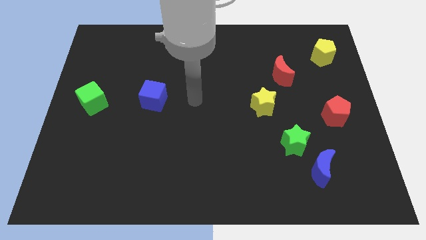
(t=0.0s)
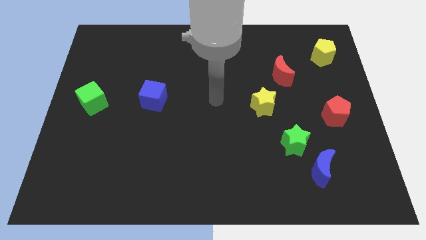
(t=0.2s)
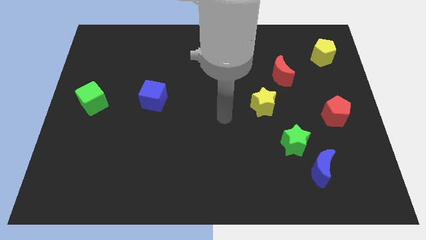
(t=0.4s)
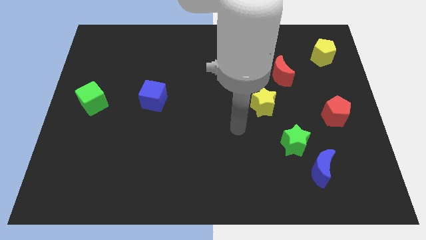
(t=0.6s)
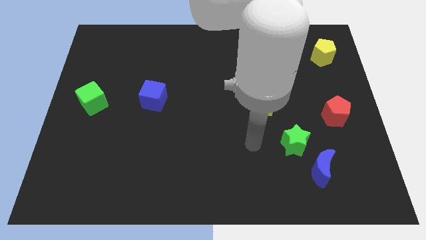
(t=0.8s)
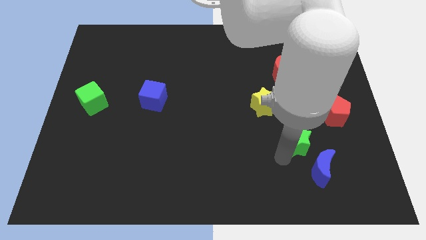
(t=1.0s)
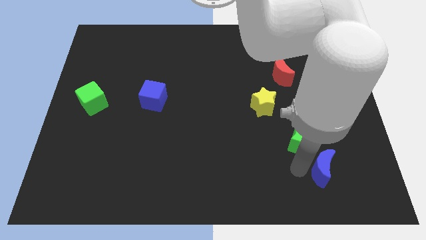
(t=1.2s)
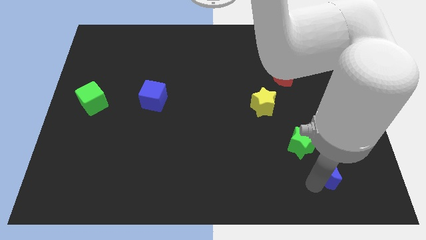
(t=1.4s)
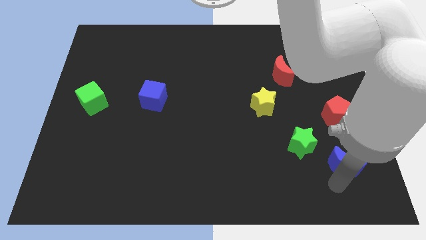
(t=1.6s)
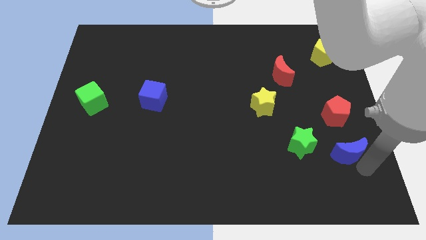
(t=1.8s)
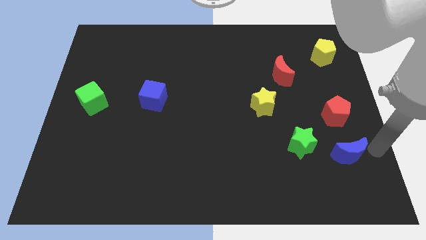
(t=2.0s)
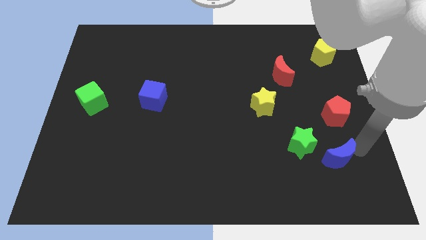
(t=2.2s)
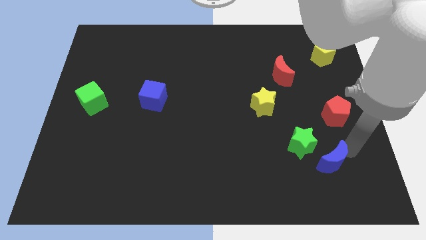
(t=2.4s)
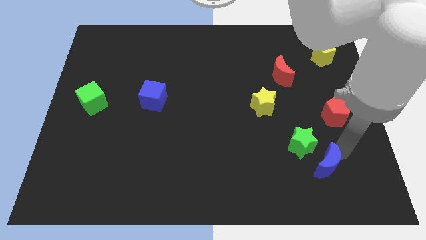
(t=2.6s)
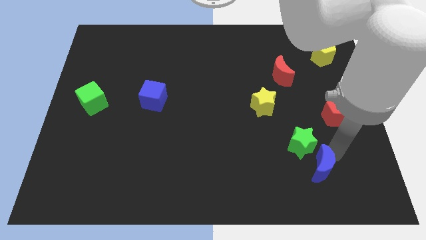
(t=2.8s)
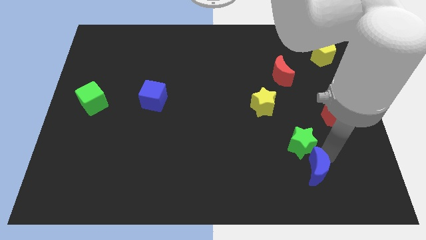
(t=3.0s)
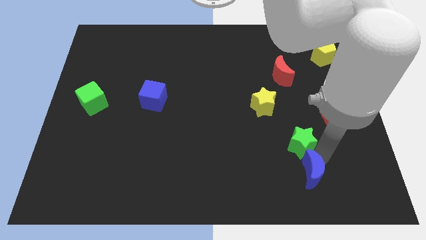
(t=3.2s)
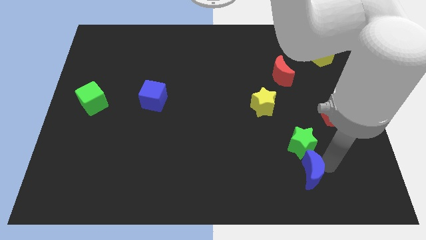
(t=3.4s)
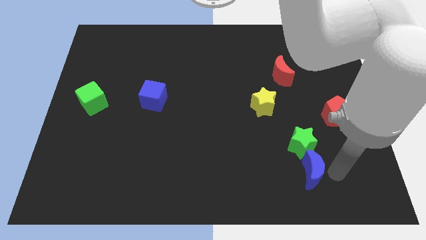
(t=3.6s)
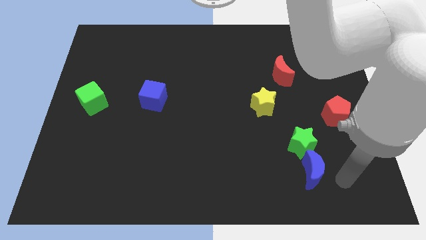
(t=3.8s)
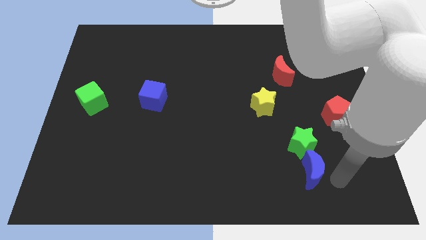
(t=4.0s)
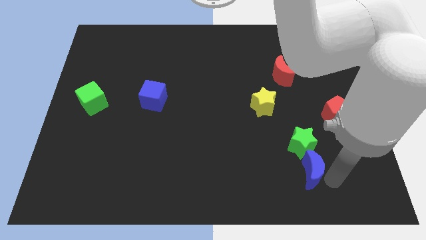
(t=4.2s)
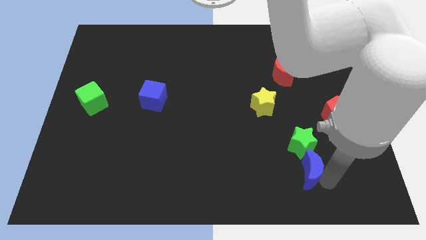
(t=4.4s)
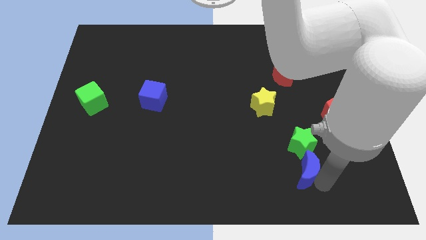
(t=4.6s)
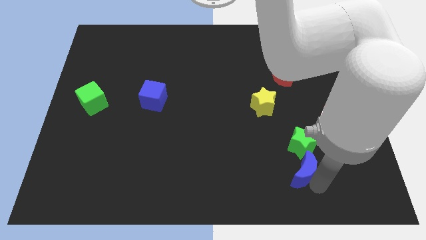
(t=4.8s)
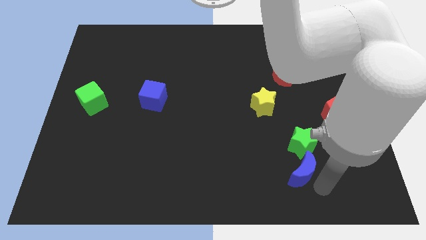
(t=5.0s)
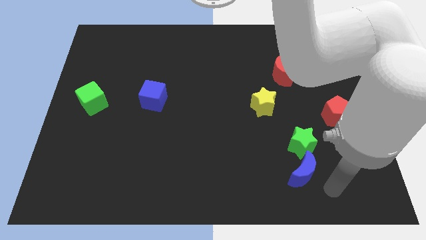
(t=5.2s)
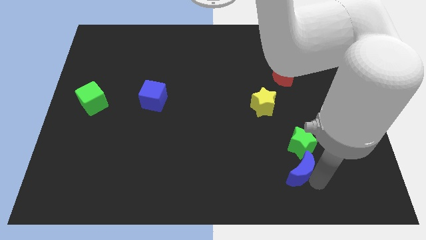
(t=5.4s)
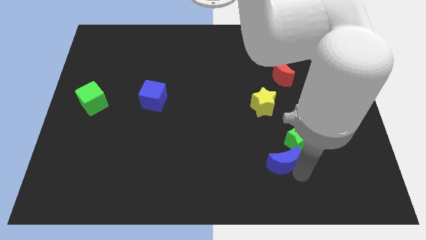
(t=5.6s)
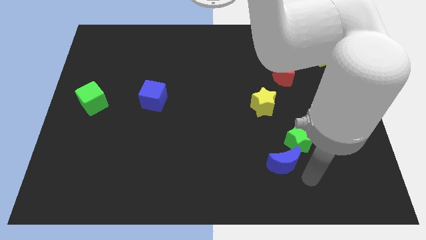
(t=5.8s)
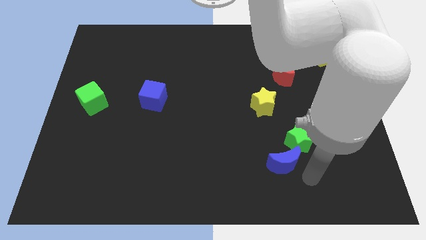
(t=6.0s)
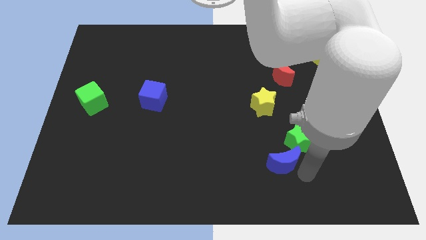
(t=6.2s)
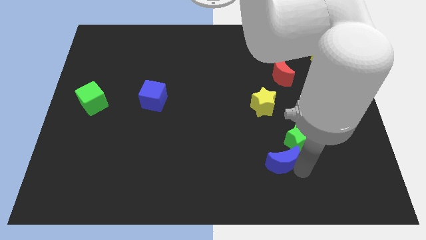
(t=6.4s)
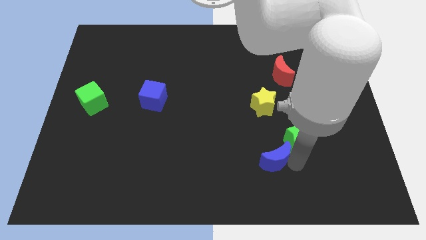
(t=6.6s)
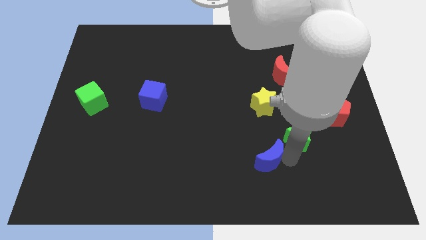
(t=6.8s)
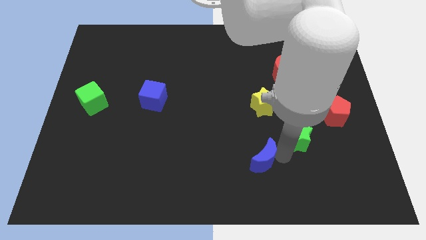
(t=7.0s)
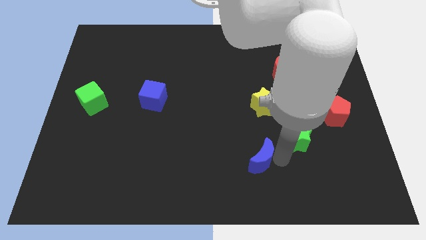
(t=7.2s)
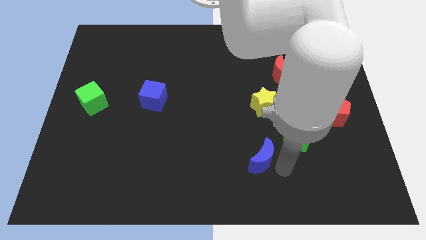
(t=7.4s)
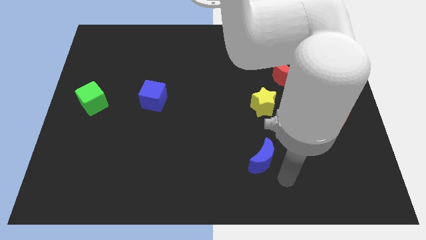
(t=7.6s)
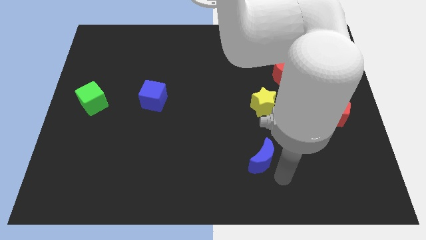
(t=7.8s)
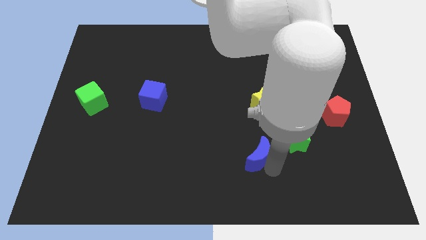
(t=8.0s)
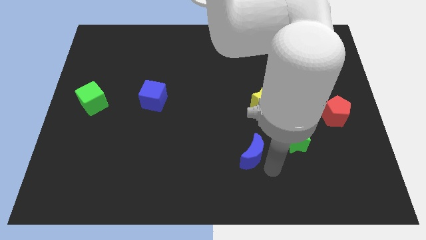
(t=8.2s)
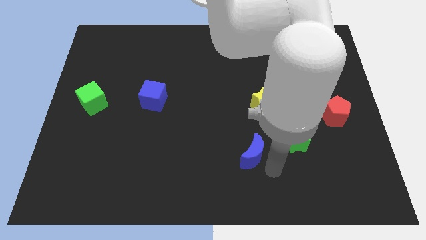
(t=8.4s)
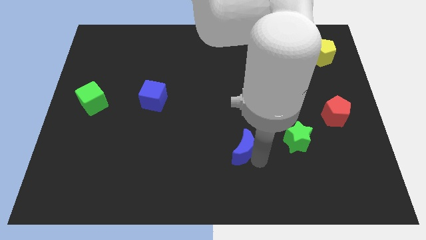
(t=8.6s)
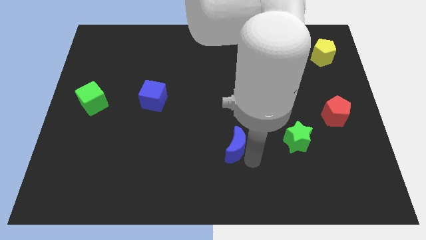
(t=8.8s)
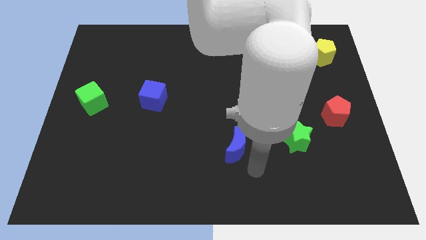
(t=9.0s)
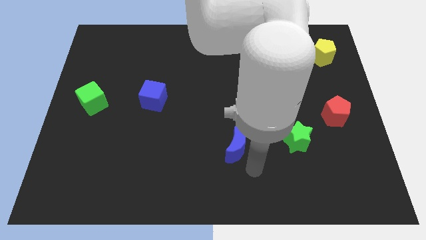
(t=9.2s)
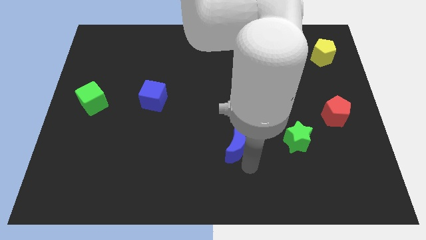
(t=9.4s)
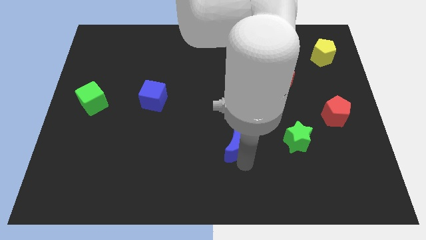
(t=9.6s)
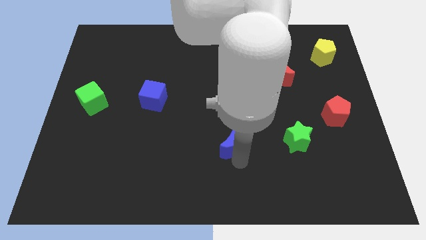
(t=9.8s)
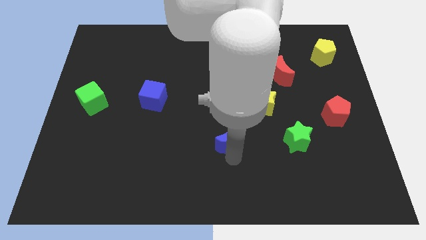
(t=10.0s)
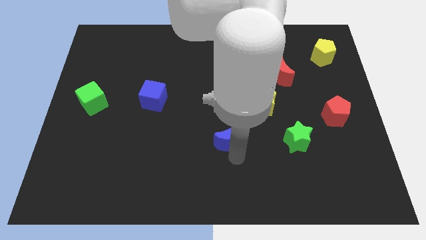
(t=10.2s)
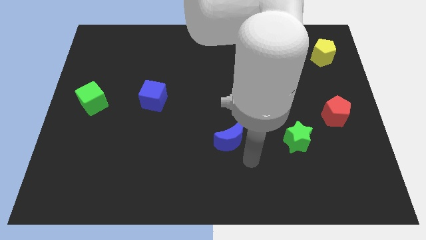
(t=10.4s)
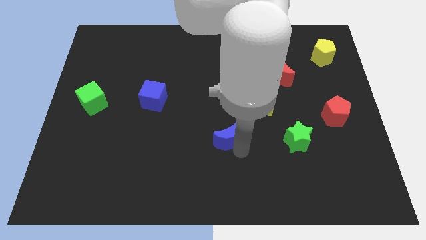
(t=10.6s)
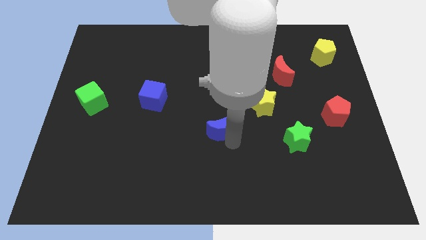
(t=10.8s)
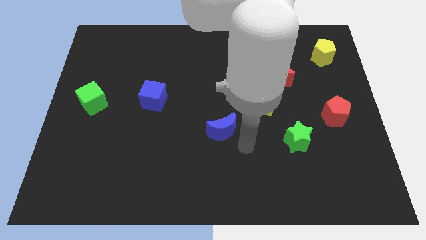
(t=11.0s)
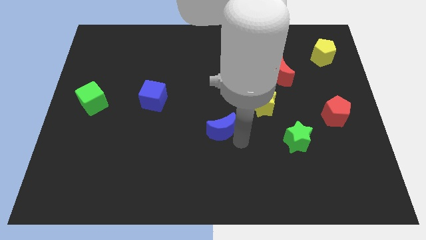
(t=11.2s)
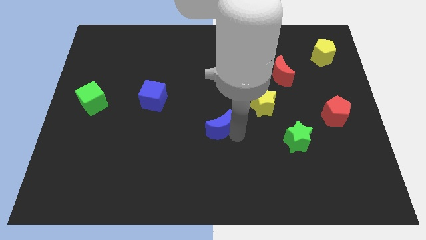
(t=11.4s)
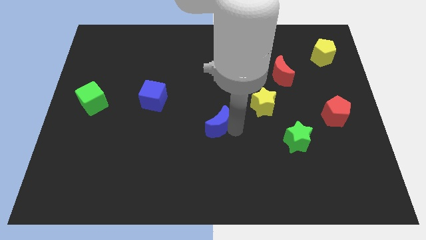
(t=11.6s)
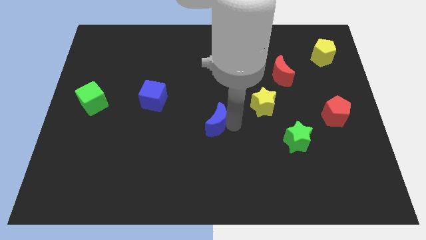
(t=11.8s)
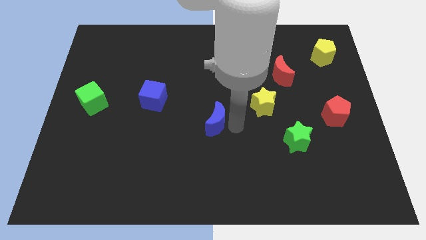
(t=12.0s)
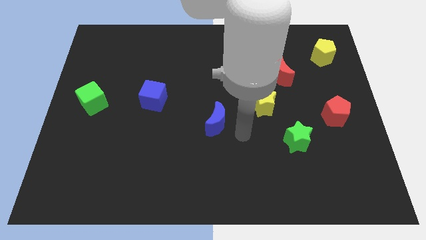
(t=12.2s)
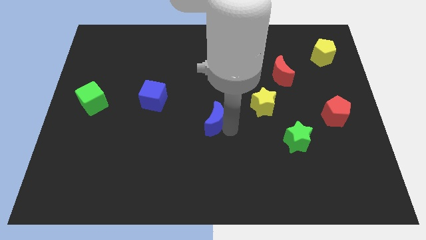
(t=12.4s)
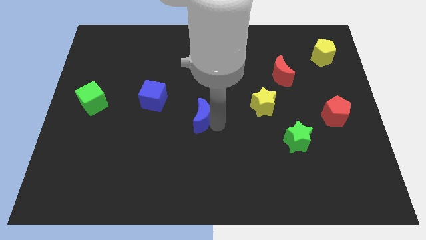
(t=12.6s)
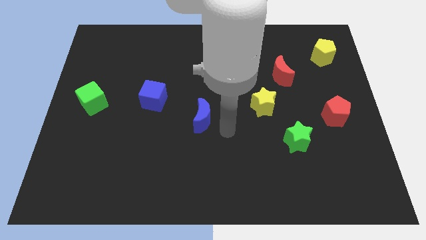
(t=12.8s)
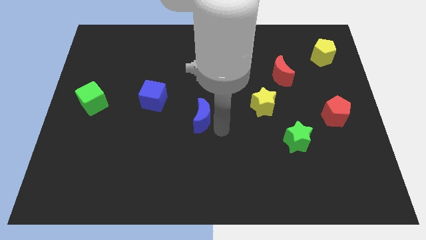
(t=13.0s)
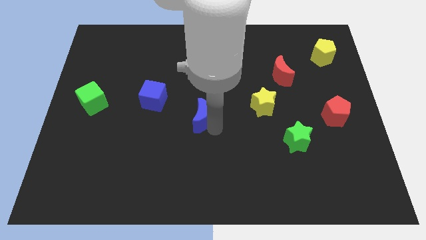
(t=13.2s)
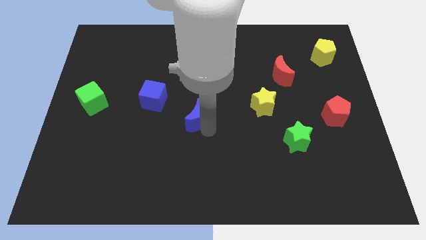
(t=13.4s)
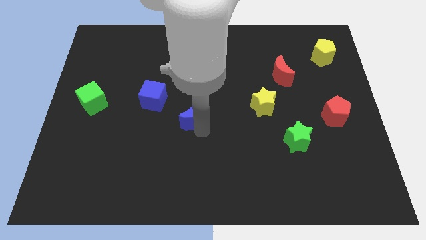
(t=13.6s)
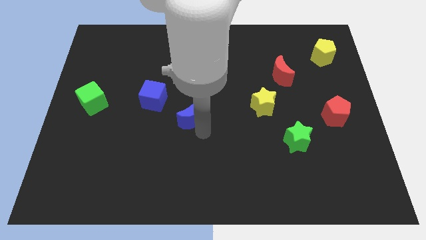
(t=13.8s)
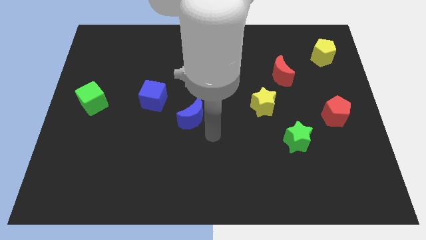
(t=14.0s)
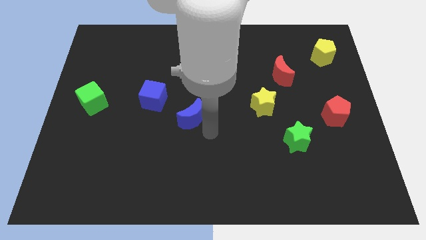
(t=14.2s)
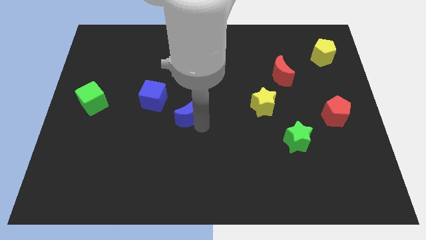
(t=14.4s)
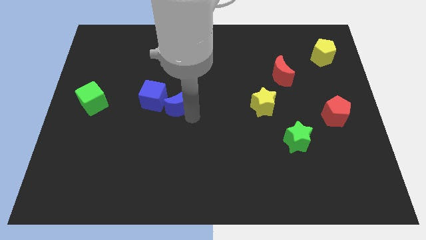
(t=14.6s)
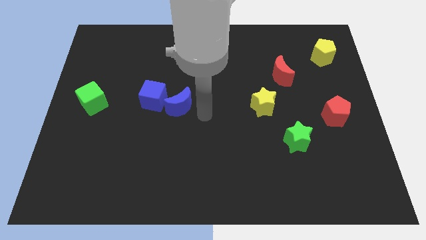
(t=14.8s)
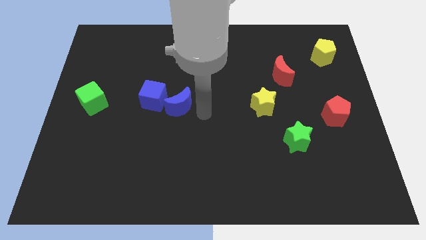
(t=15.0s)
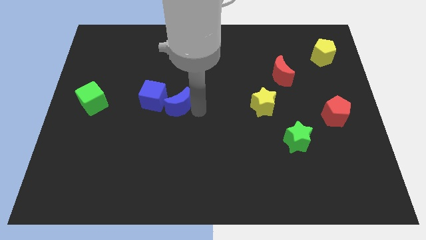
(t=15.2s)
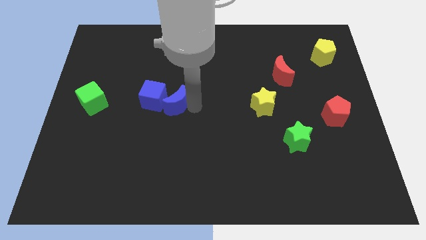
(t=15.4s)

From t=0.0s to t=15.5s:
move the blue moon close to the blue cube

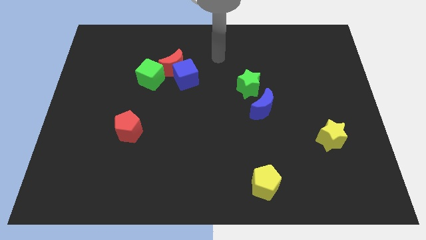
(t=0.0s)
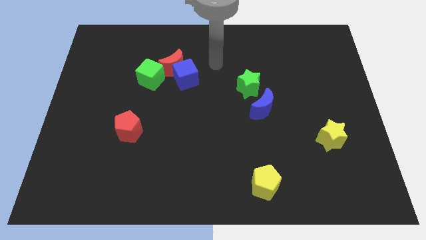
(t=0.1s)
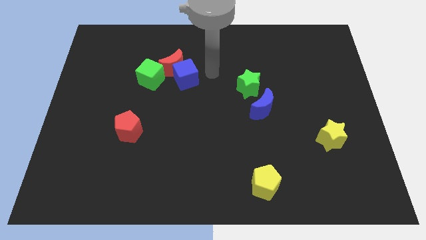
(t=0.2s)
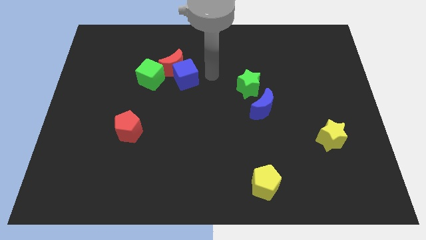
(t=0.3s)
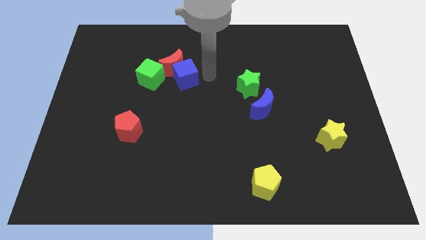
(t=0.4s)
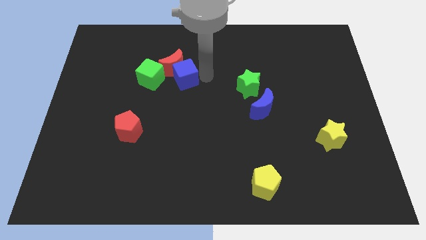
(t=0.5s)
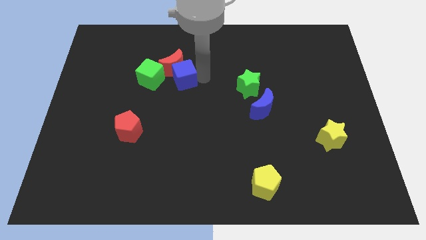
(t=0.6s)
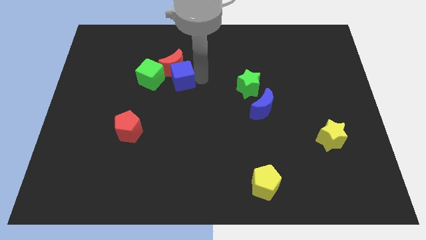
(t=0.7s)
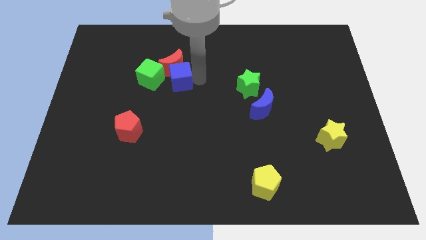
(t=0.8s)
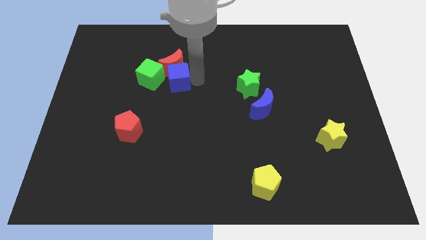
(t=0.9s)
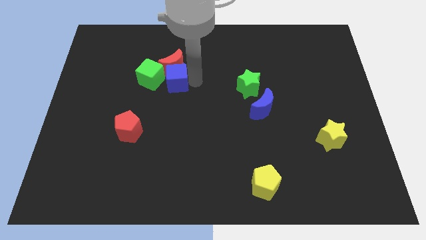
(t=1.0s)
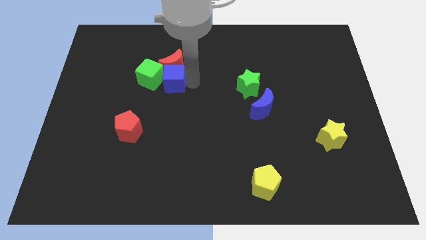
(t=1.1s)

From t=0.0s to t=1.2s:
push the blue cube to the green cube
